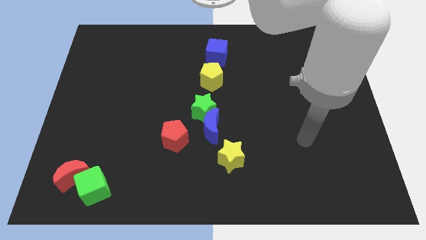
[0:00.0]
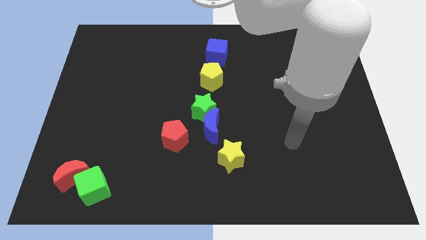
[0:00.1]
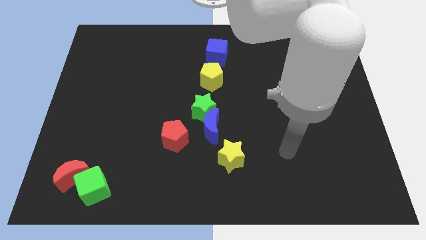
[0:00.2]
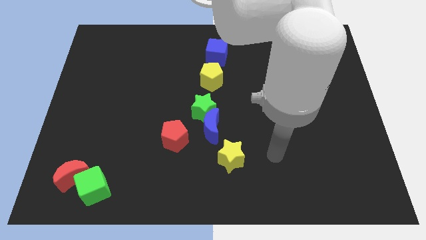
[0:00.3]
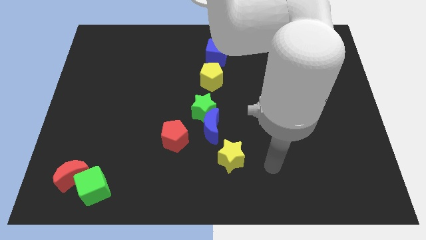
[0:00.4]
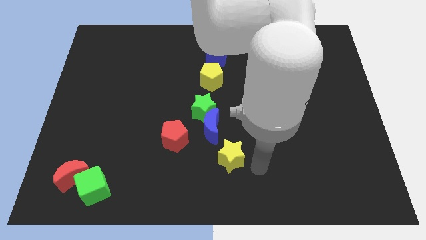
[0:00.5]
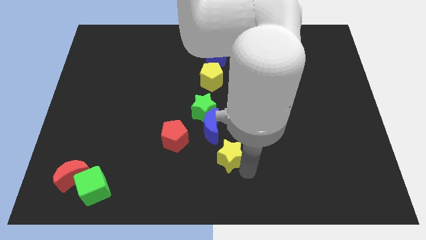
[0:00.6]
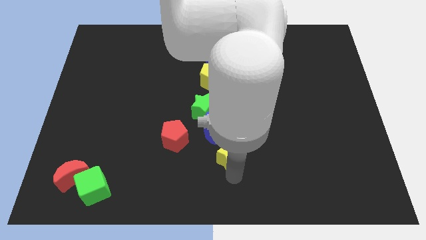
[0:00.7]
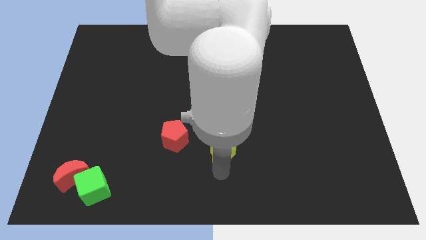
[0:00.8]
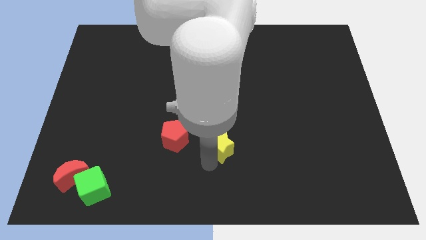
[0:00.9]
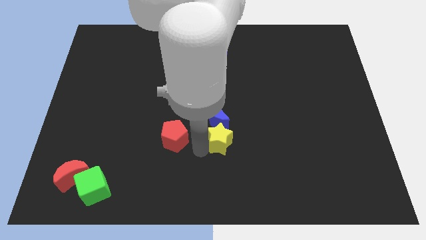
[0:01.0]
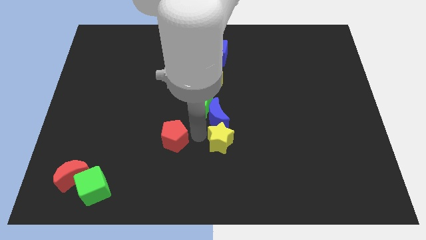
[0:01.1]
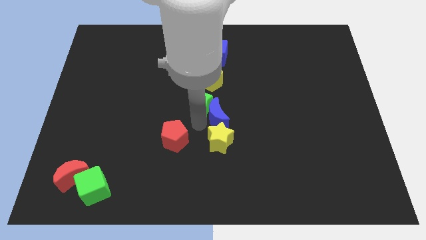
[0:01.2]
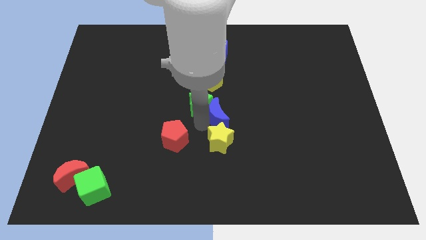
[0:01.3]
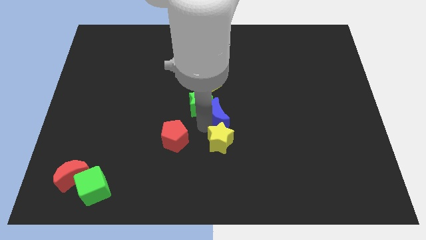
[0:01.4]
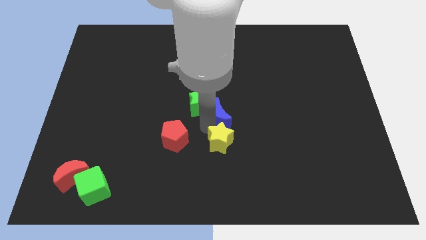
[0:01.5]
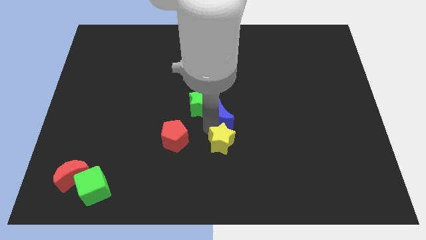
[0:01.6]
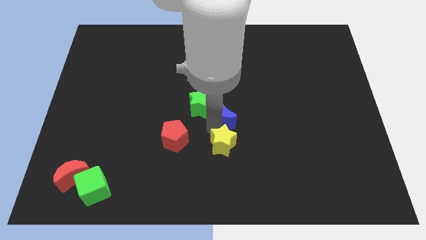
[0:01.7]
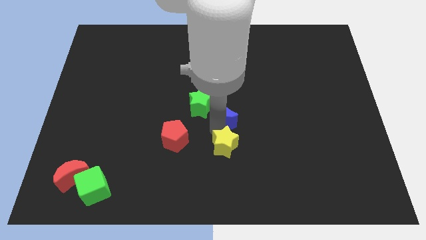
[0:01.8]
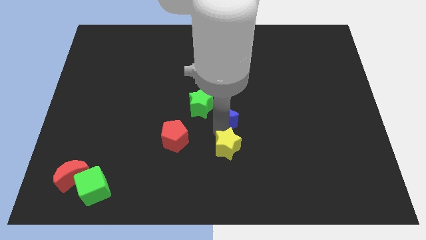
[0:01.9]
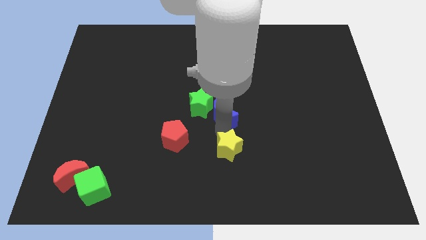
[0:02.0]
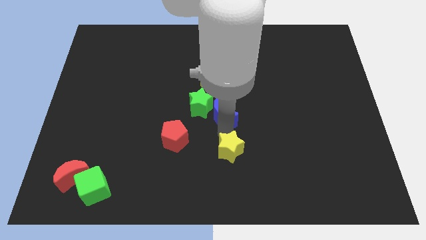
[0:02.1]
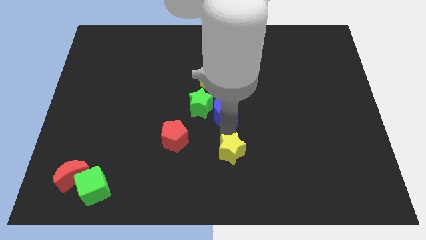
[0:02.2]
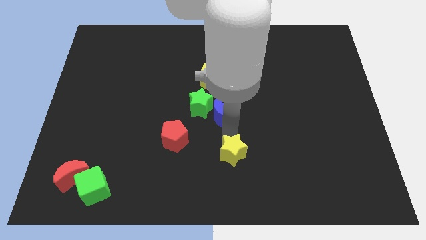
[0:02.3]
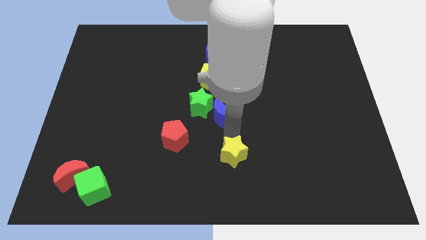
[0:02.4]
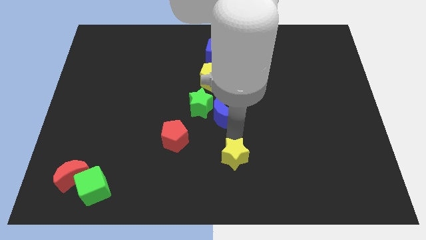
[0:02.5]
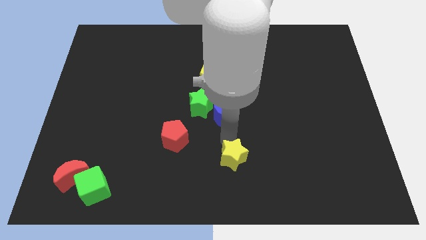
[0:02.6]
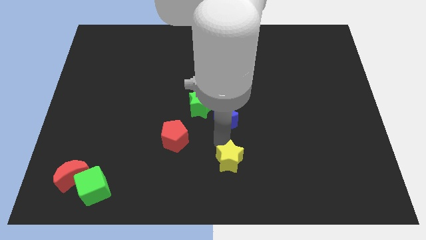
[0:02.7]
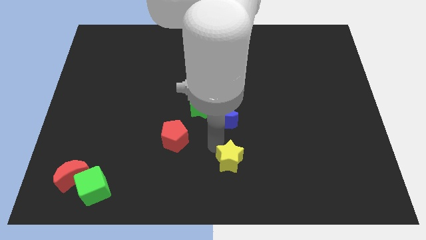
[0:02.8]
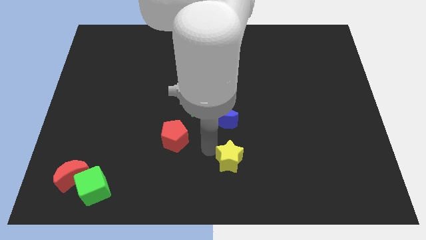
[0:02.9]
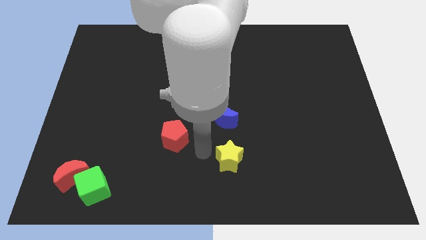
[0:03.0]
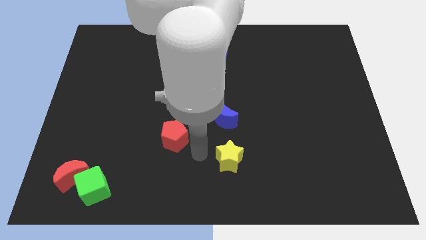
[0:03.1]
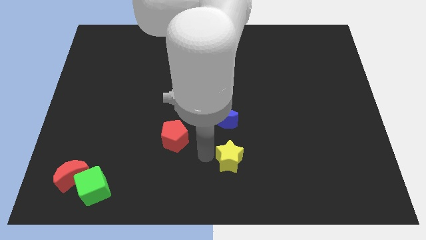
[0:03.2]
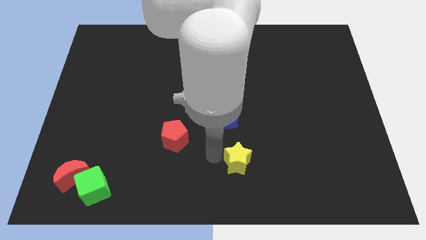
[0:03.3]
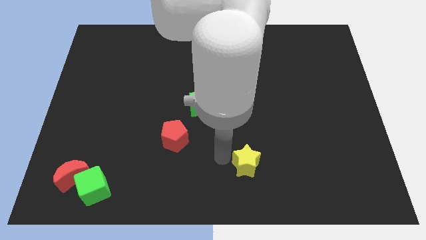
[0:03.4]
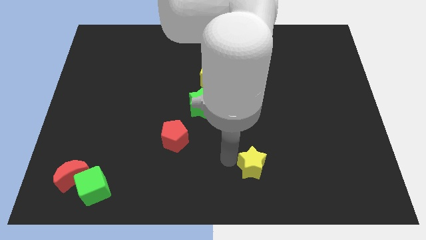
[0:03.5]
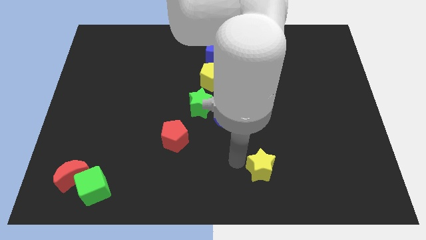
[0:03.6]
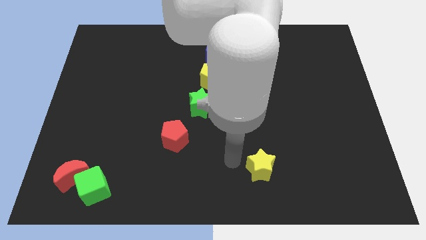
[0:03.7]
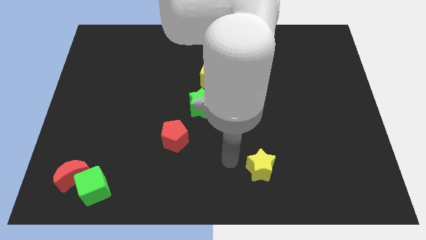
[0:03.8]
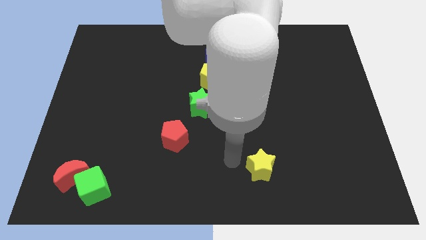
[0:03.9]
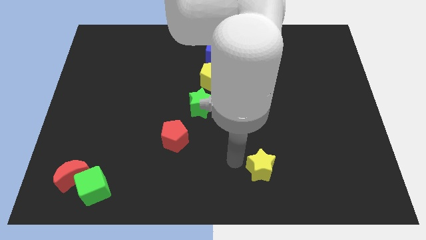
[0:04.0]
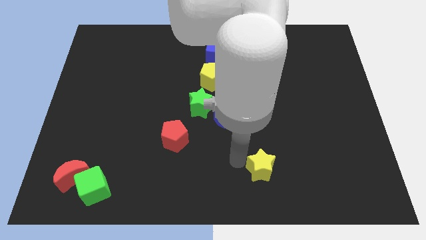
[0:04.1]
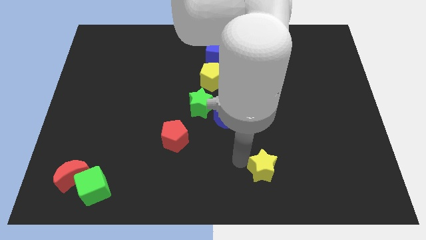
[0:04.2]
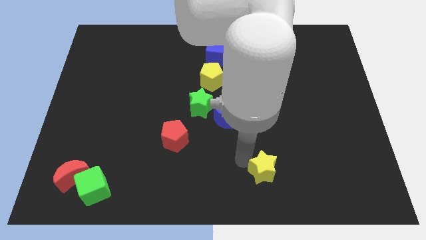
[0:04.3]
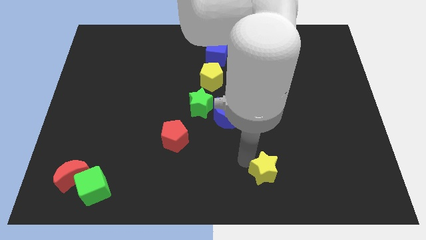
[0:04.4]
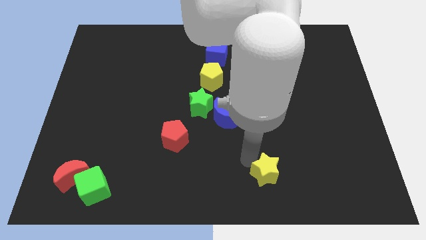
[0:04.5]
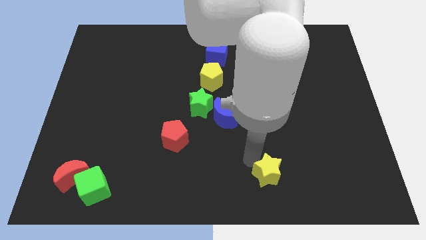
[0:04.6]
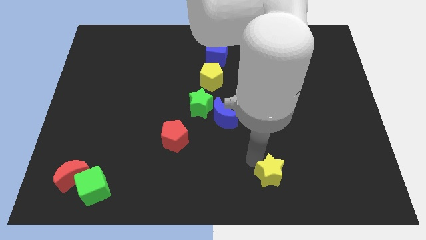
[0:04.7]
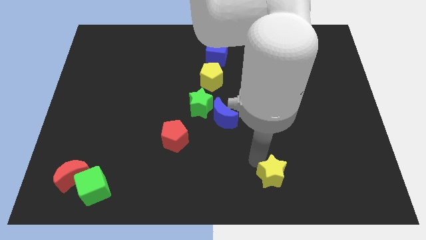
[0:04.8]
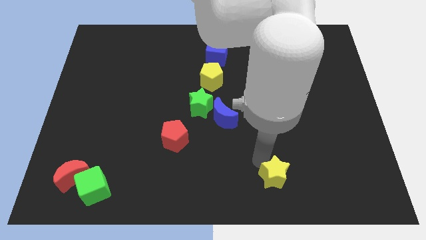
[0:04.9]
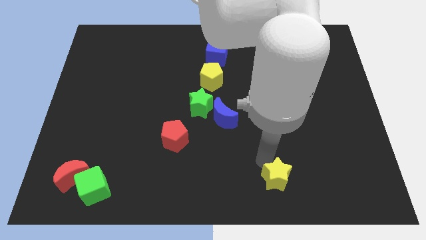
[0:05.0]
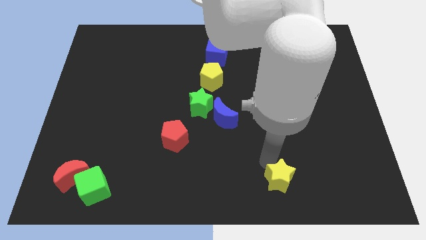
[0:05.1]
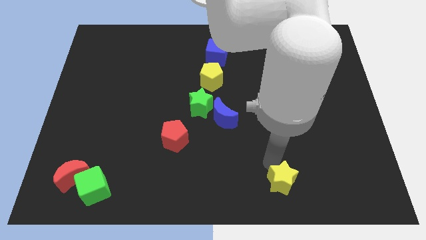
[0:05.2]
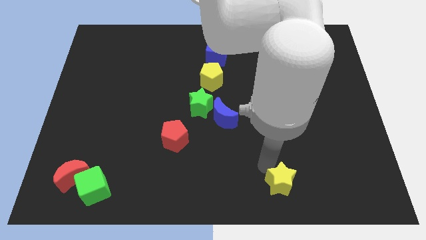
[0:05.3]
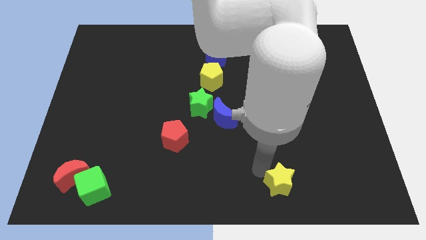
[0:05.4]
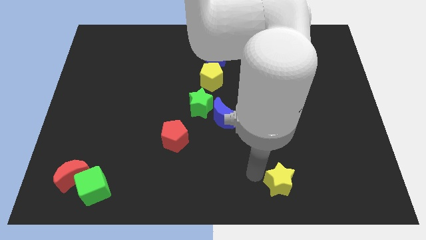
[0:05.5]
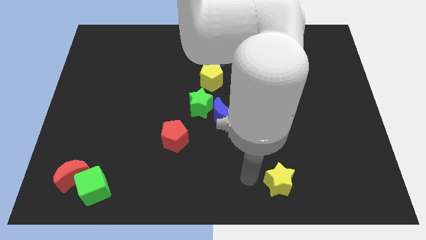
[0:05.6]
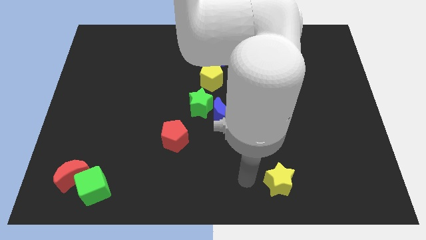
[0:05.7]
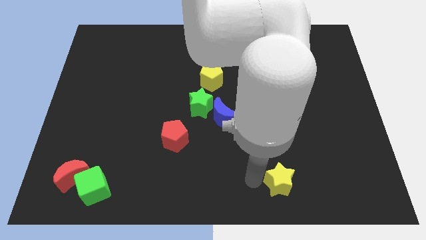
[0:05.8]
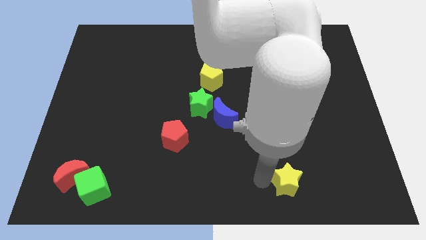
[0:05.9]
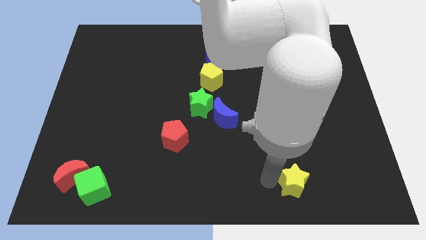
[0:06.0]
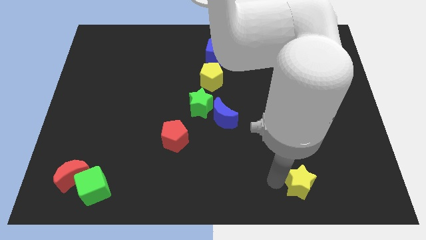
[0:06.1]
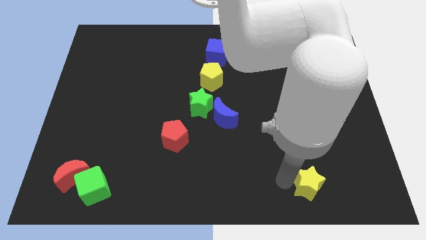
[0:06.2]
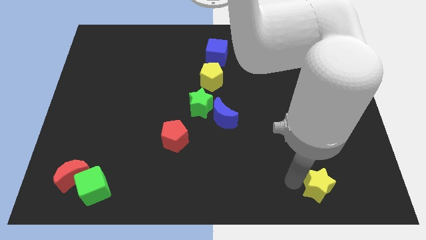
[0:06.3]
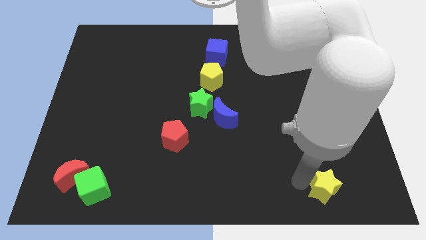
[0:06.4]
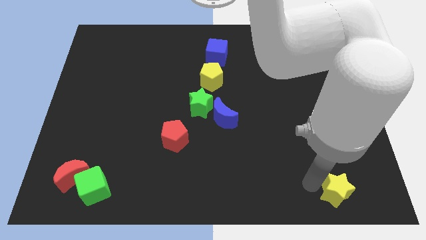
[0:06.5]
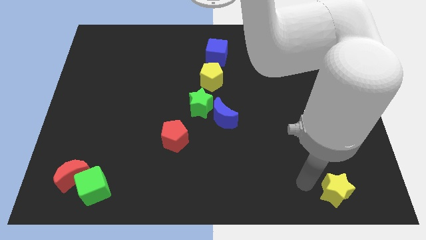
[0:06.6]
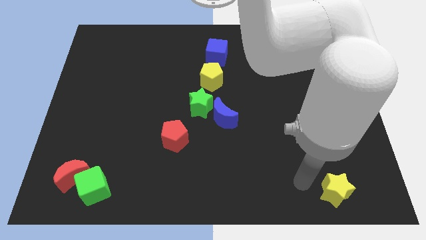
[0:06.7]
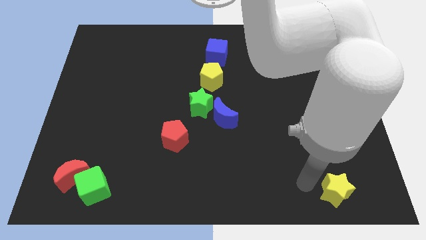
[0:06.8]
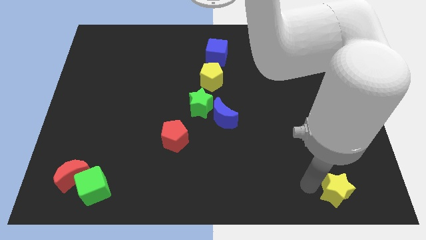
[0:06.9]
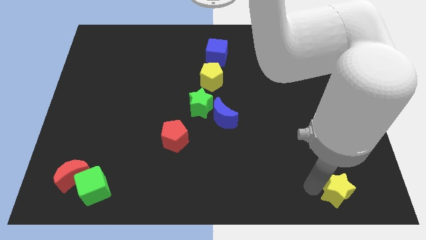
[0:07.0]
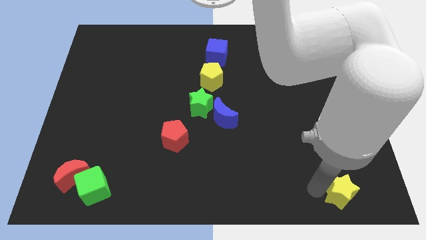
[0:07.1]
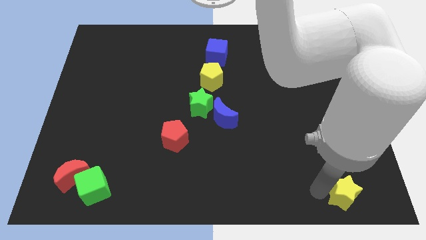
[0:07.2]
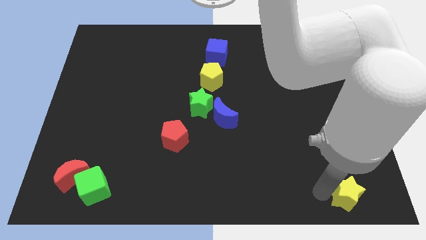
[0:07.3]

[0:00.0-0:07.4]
move the yellow star to the lower right corner
